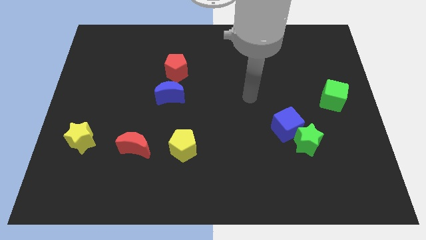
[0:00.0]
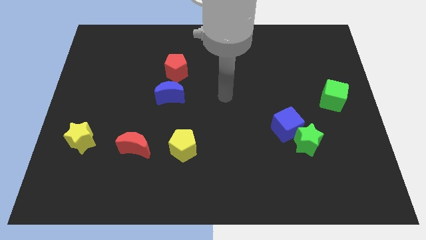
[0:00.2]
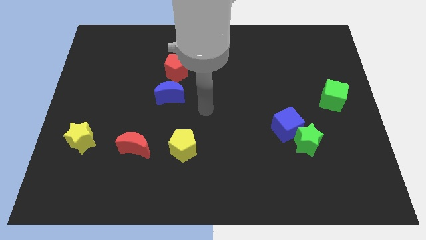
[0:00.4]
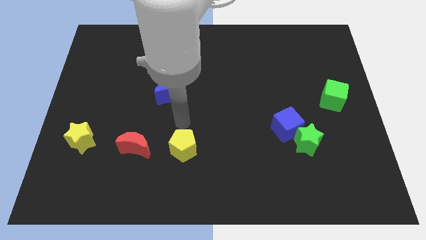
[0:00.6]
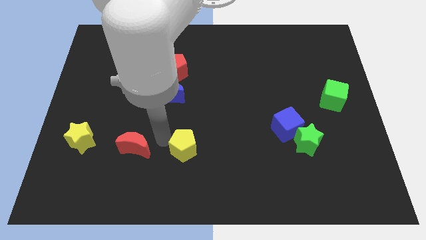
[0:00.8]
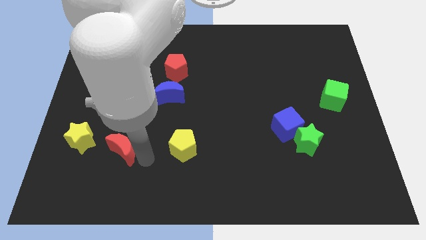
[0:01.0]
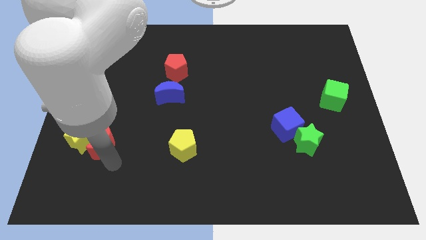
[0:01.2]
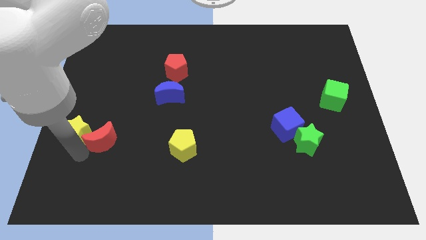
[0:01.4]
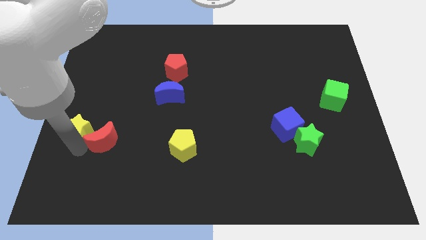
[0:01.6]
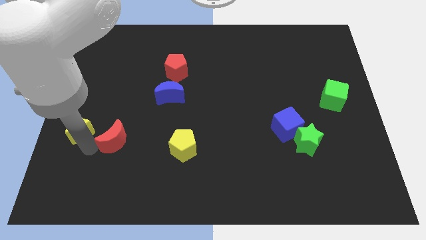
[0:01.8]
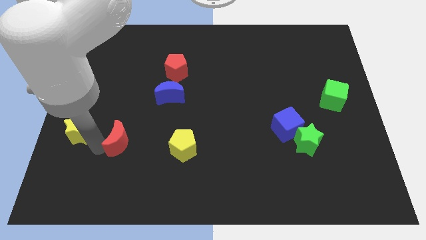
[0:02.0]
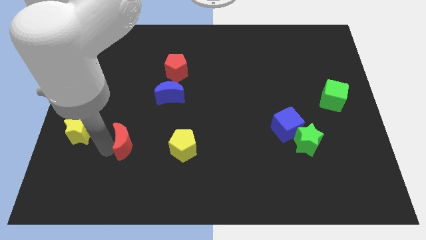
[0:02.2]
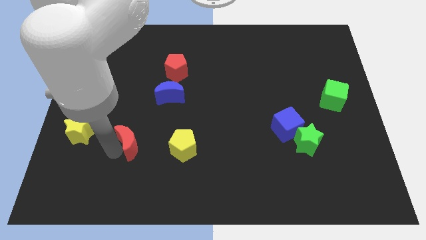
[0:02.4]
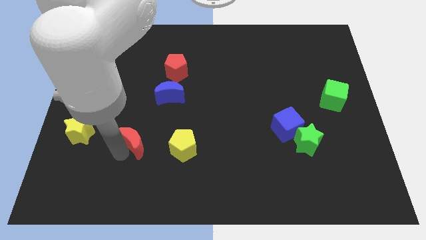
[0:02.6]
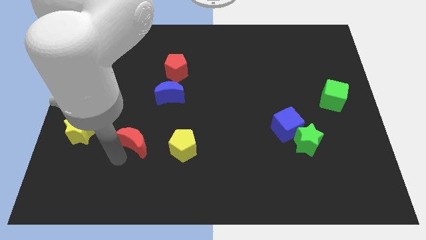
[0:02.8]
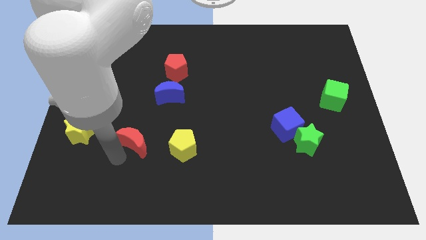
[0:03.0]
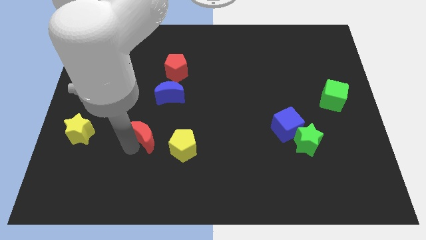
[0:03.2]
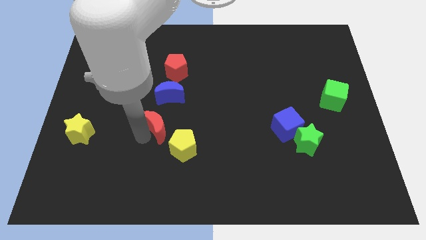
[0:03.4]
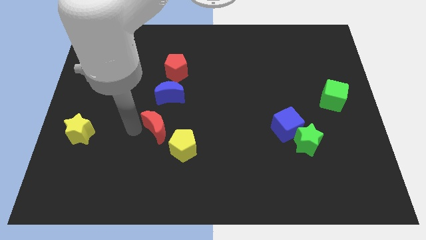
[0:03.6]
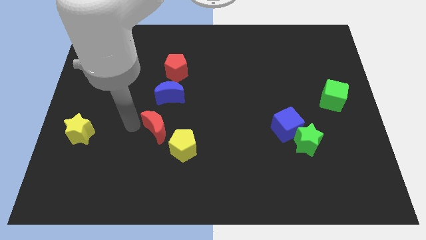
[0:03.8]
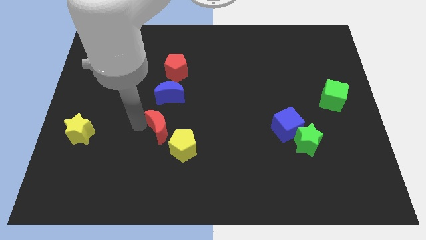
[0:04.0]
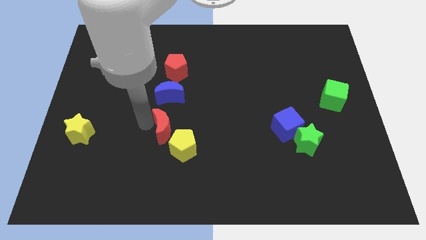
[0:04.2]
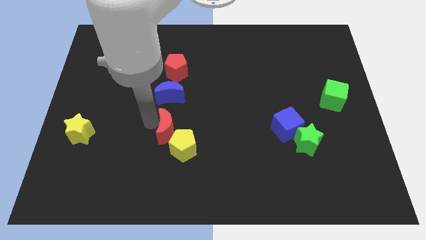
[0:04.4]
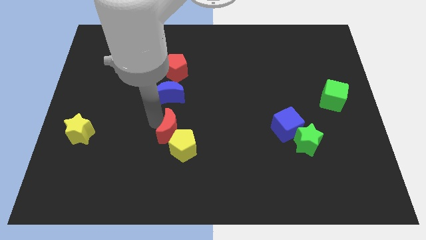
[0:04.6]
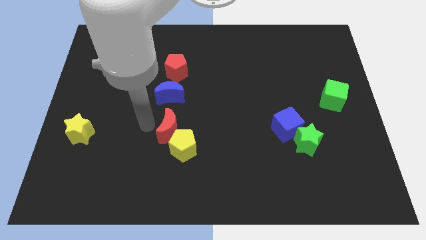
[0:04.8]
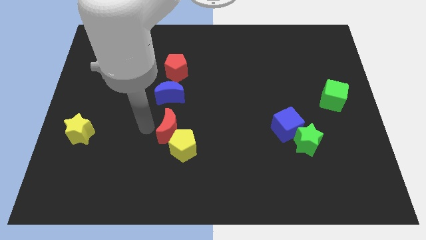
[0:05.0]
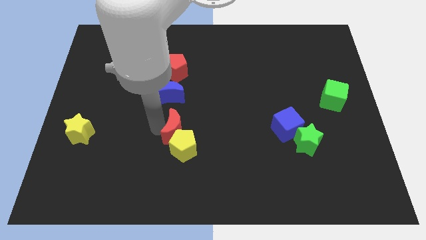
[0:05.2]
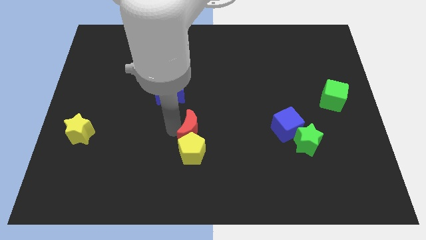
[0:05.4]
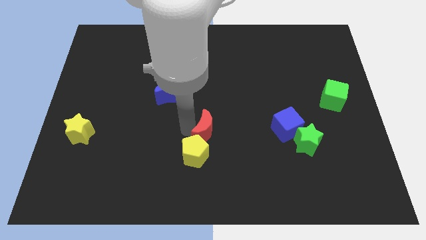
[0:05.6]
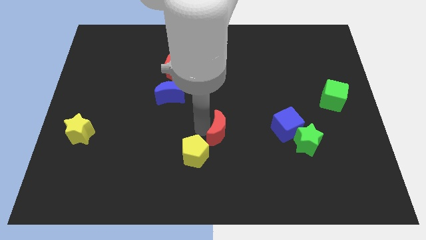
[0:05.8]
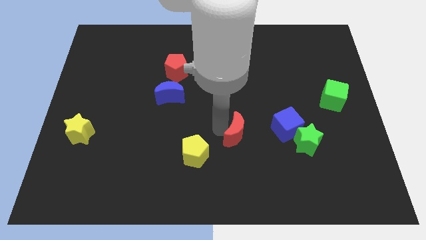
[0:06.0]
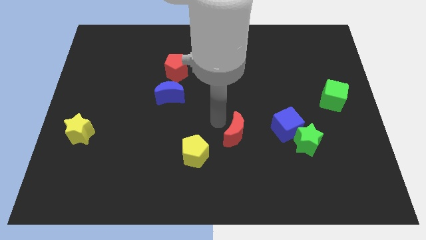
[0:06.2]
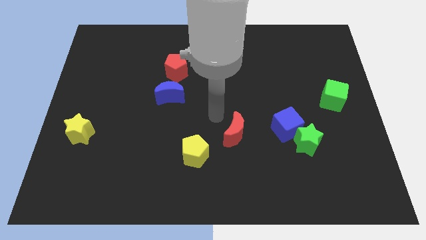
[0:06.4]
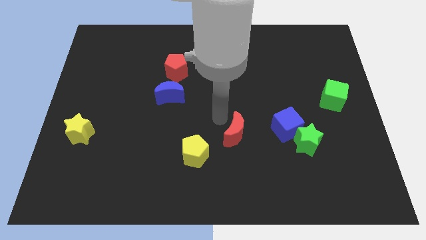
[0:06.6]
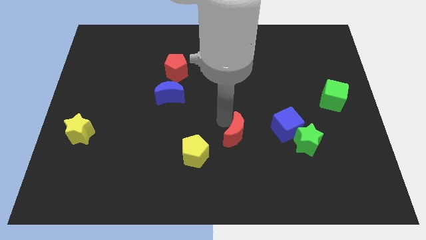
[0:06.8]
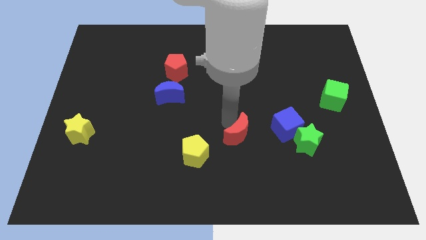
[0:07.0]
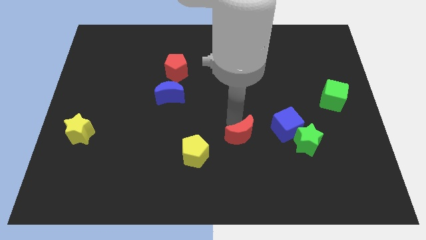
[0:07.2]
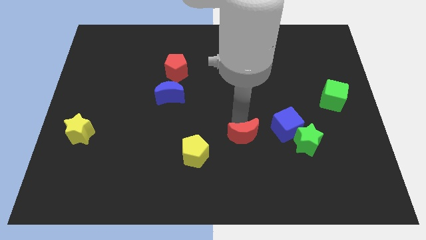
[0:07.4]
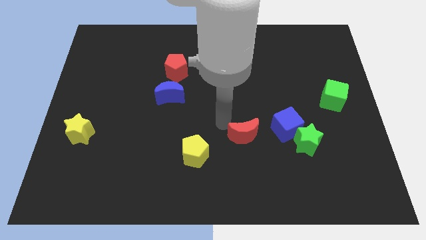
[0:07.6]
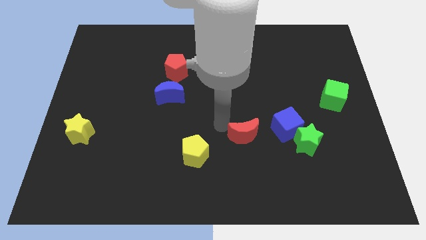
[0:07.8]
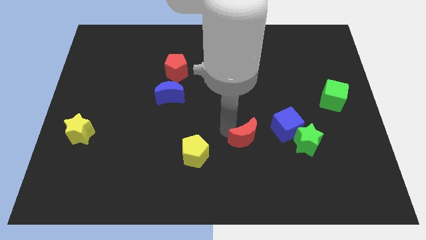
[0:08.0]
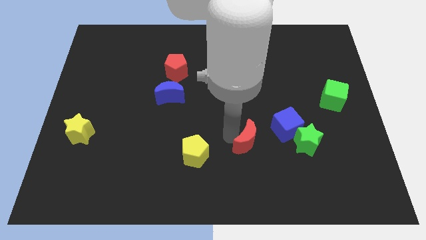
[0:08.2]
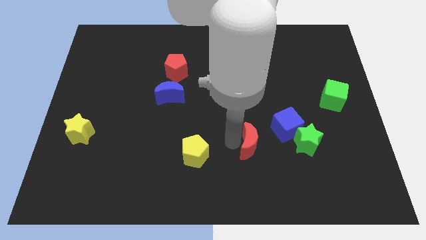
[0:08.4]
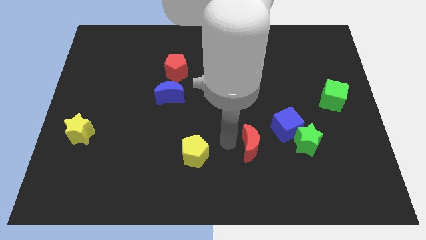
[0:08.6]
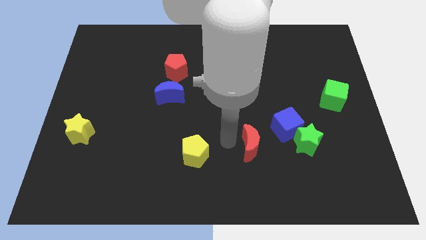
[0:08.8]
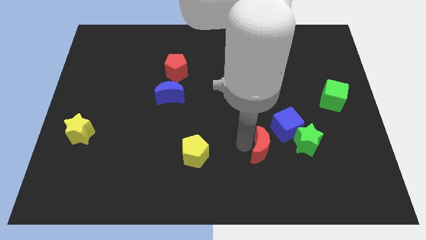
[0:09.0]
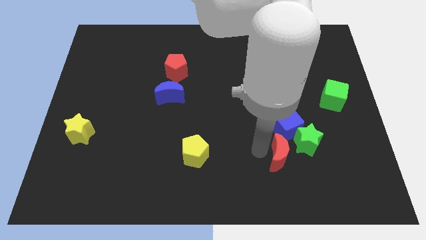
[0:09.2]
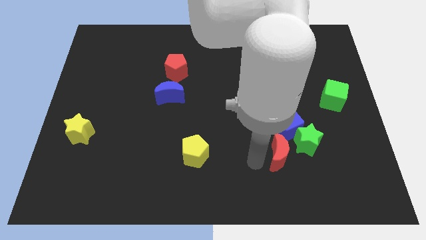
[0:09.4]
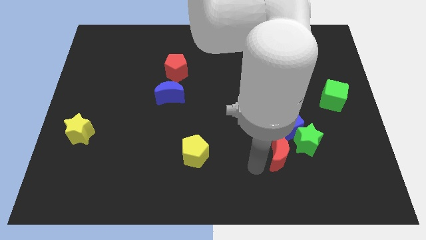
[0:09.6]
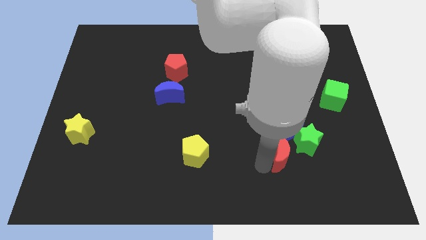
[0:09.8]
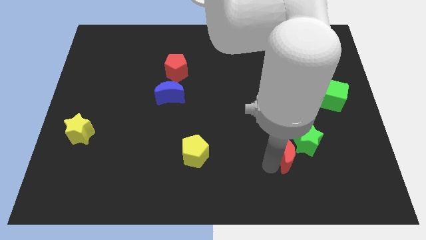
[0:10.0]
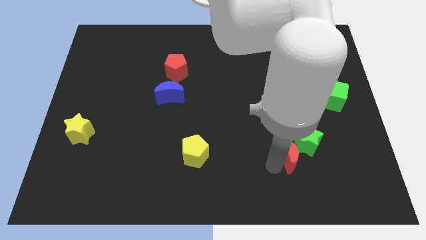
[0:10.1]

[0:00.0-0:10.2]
slide the red moon close to the green star

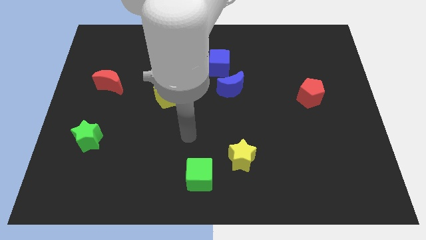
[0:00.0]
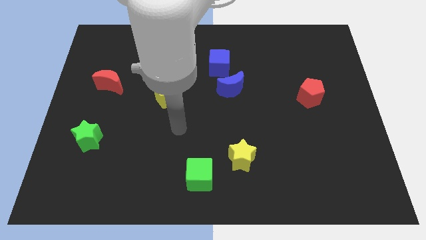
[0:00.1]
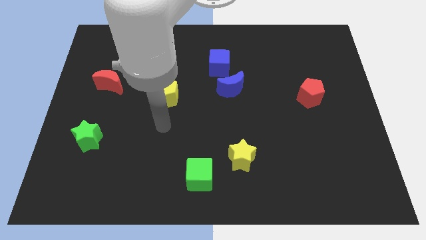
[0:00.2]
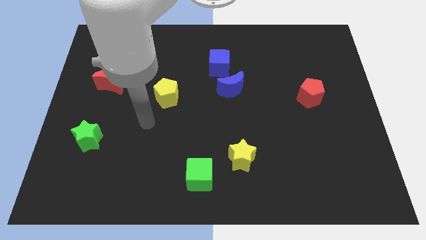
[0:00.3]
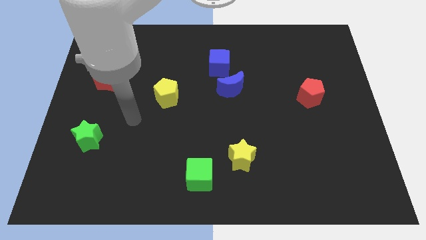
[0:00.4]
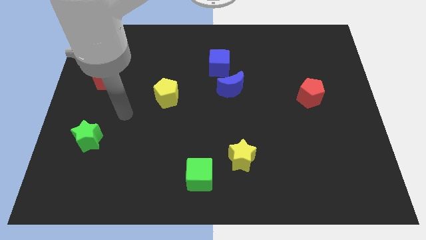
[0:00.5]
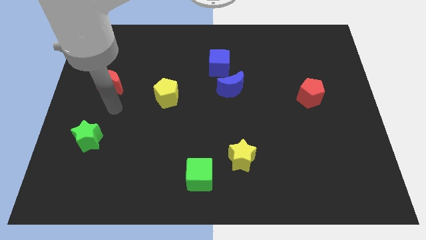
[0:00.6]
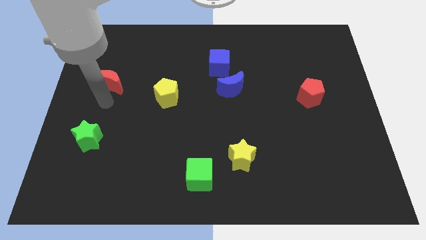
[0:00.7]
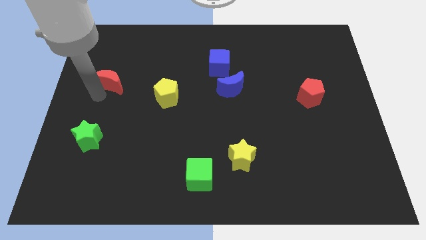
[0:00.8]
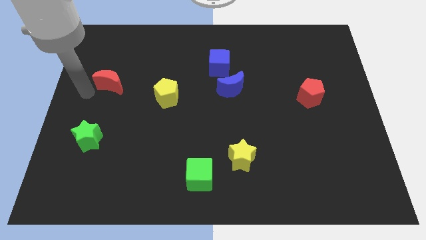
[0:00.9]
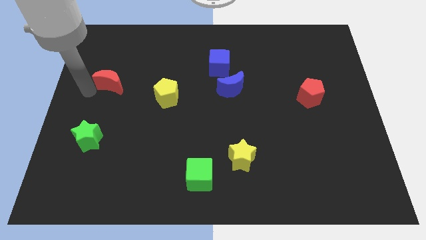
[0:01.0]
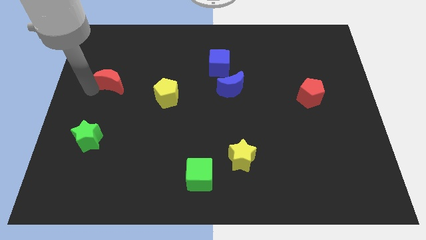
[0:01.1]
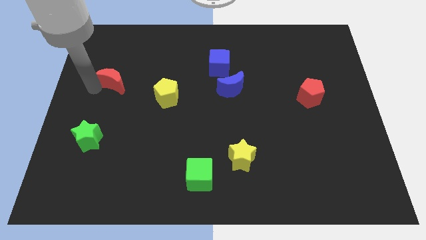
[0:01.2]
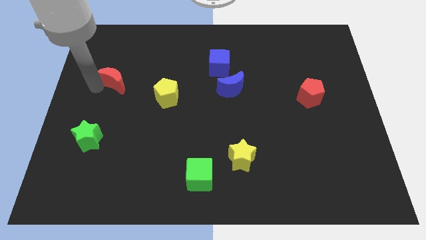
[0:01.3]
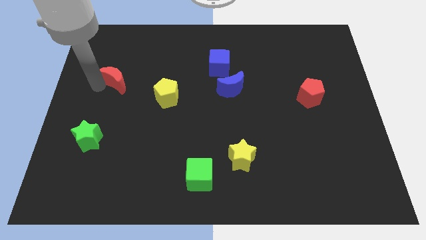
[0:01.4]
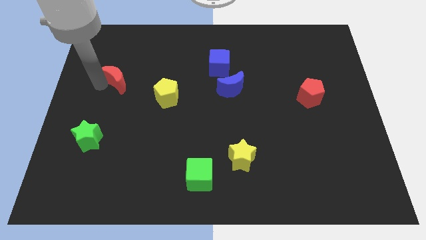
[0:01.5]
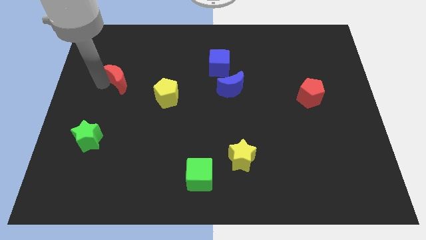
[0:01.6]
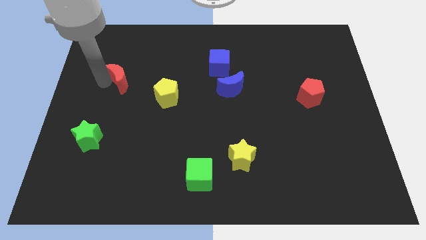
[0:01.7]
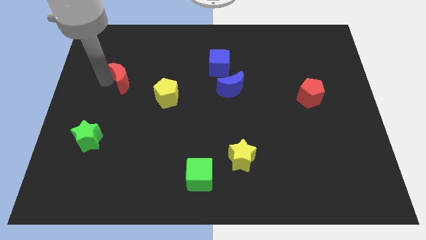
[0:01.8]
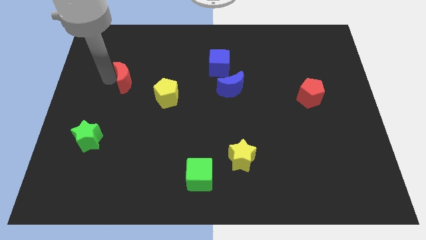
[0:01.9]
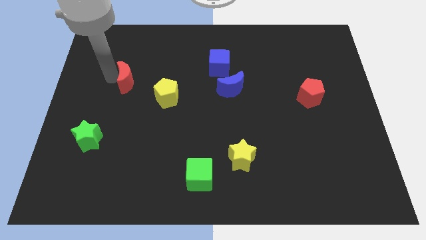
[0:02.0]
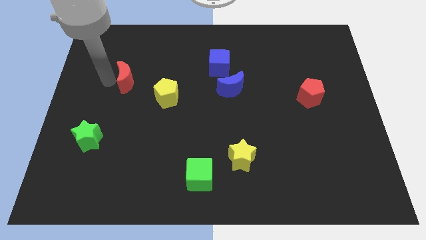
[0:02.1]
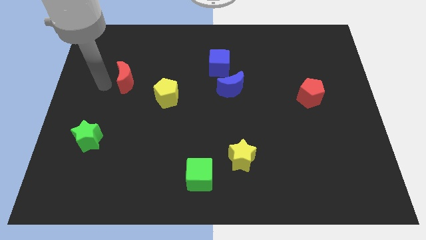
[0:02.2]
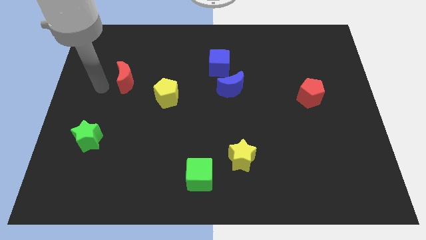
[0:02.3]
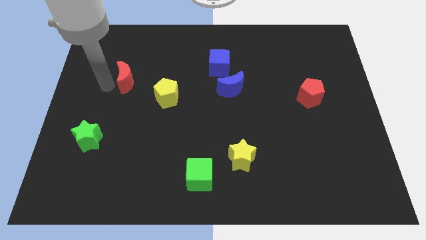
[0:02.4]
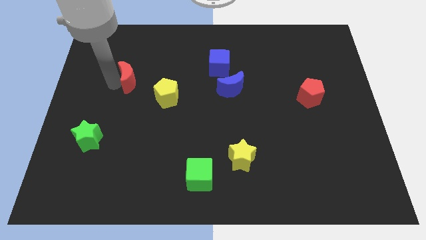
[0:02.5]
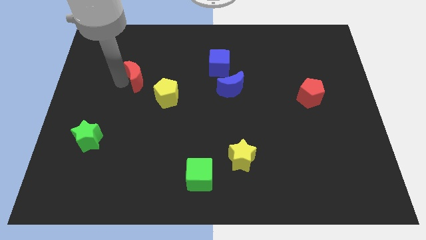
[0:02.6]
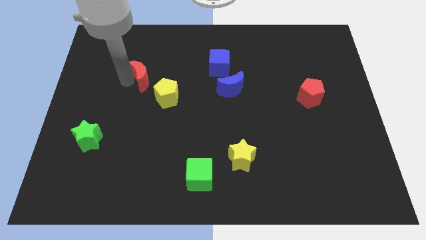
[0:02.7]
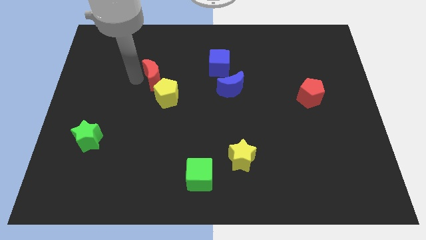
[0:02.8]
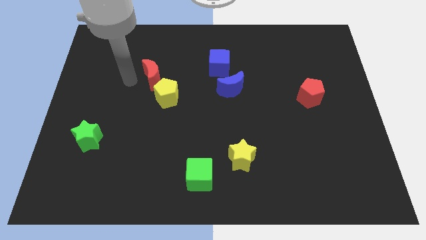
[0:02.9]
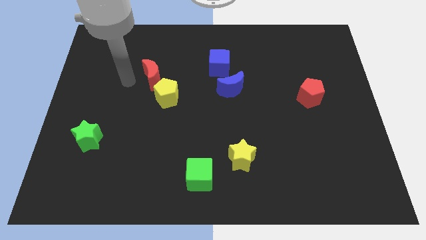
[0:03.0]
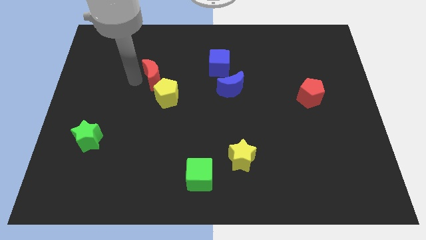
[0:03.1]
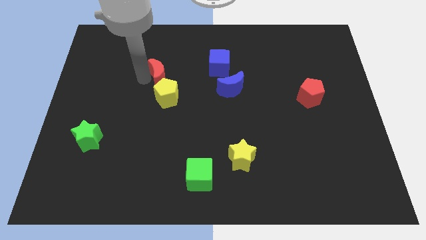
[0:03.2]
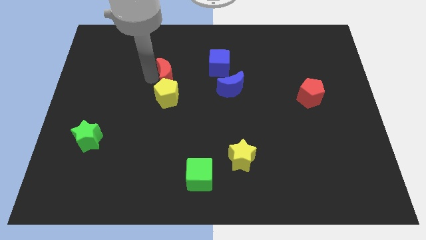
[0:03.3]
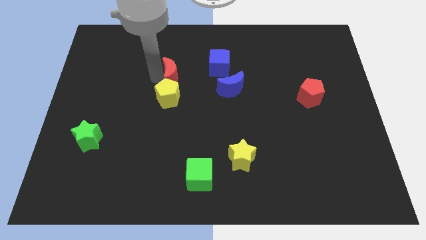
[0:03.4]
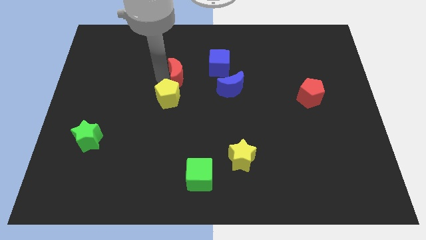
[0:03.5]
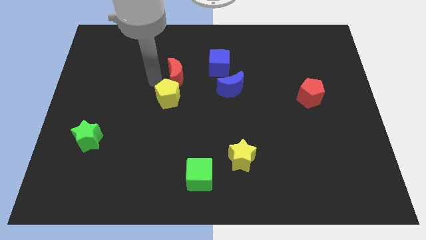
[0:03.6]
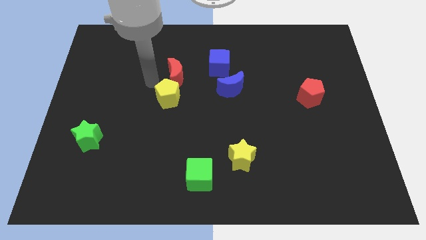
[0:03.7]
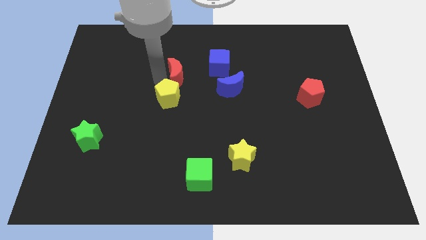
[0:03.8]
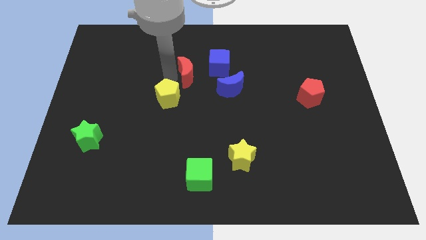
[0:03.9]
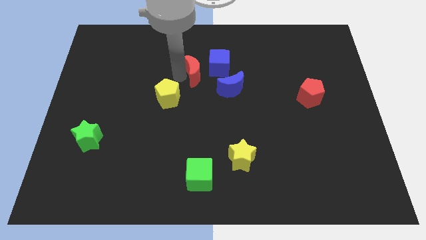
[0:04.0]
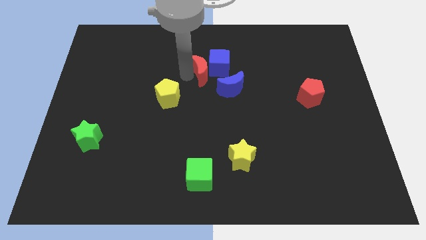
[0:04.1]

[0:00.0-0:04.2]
put the red moon close to the blue cube
